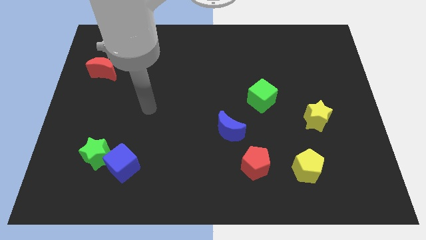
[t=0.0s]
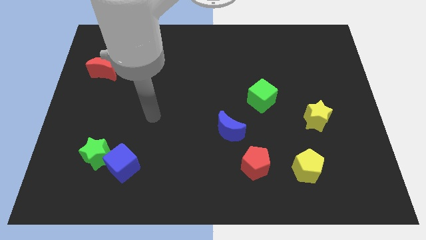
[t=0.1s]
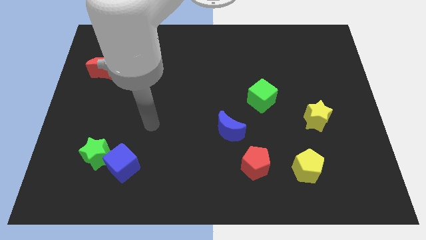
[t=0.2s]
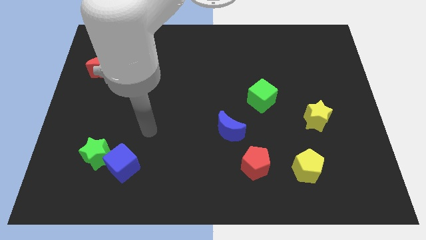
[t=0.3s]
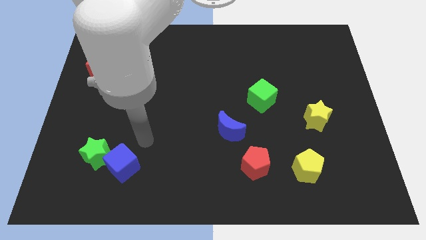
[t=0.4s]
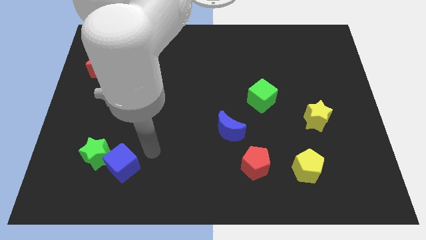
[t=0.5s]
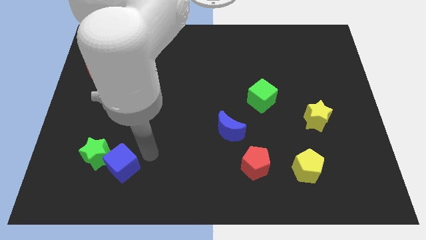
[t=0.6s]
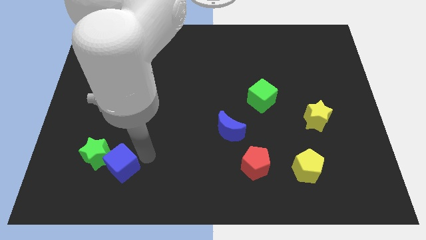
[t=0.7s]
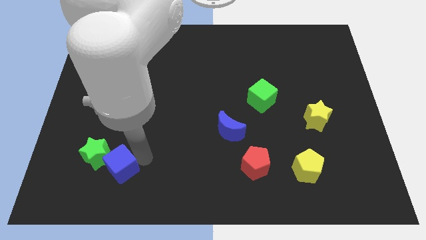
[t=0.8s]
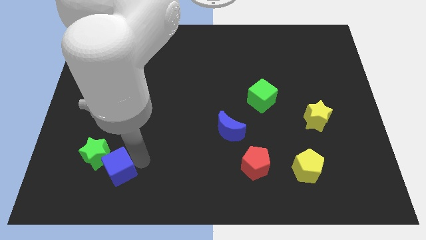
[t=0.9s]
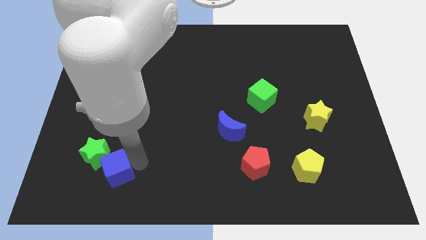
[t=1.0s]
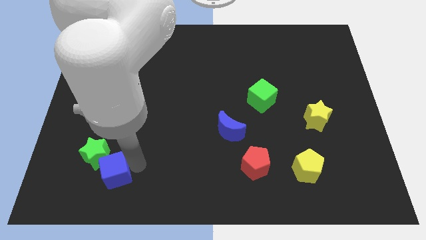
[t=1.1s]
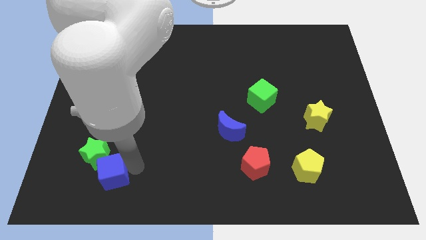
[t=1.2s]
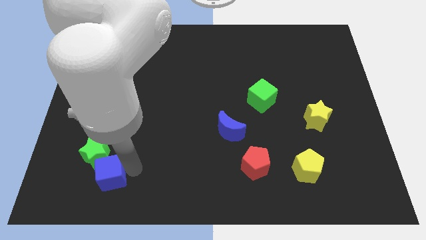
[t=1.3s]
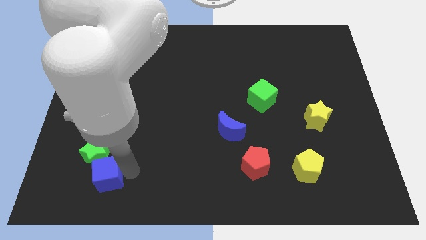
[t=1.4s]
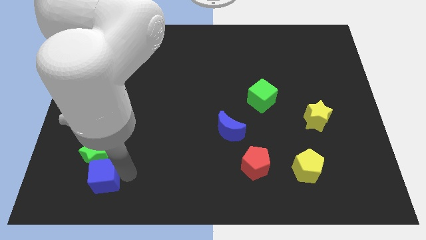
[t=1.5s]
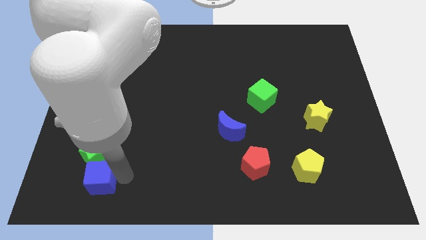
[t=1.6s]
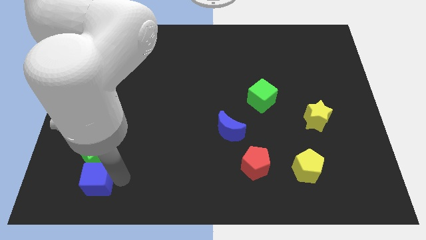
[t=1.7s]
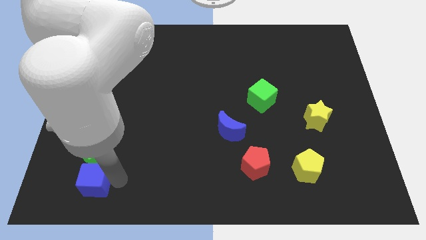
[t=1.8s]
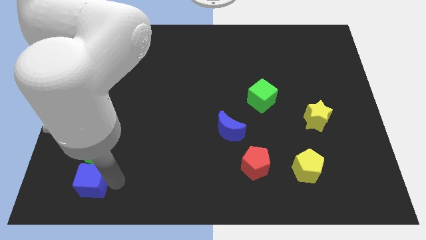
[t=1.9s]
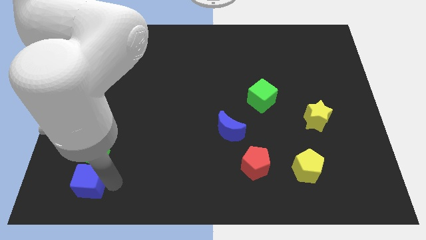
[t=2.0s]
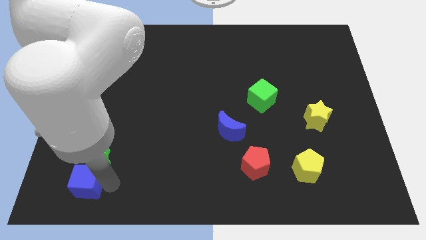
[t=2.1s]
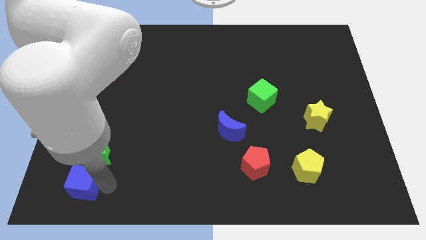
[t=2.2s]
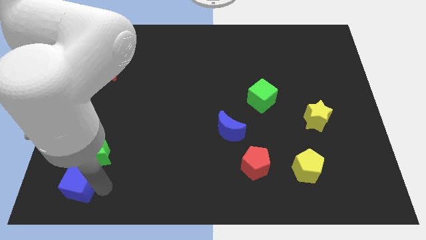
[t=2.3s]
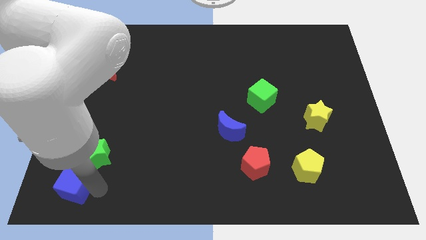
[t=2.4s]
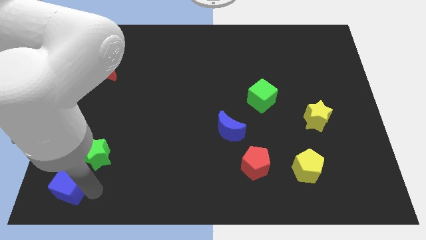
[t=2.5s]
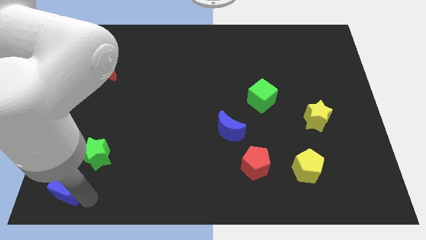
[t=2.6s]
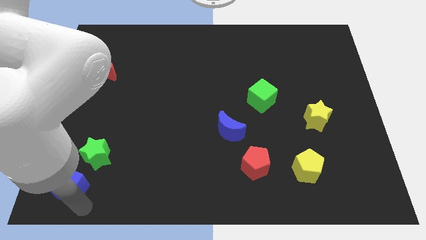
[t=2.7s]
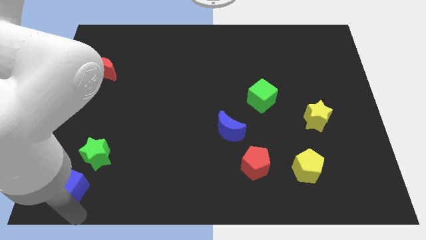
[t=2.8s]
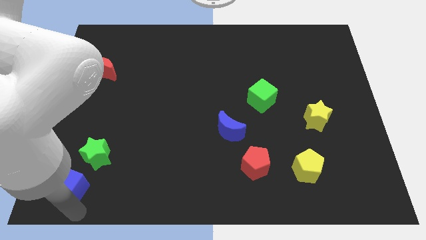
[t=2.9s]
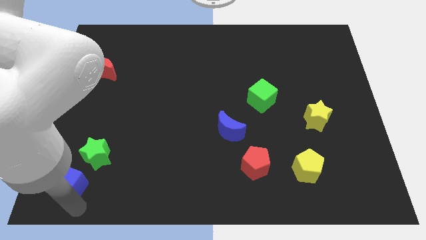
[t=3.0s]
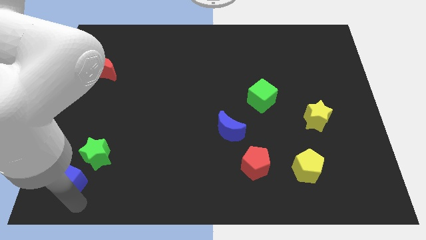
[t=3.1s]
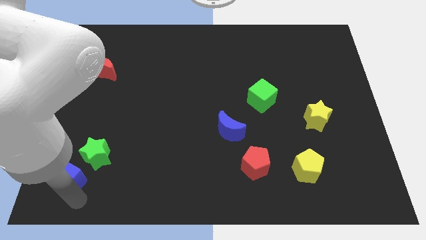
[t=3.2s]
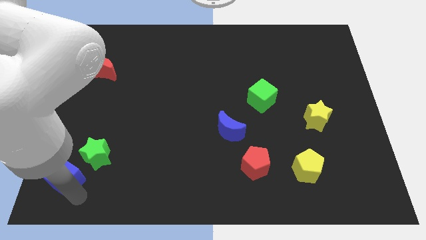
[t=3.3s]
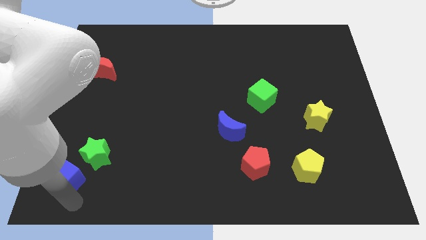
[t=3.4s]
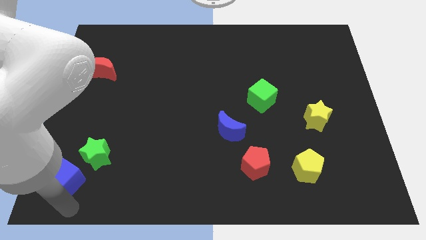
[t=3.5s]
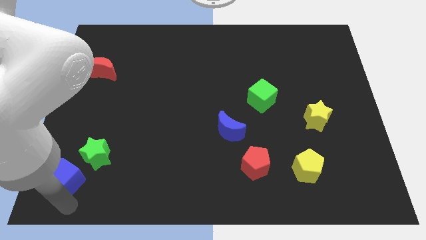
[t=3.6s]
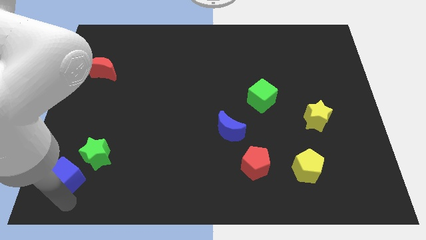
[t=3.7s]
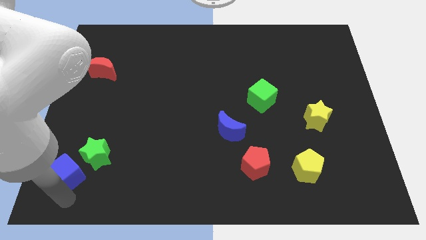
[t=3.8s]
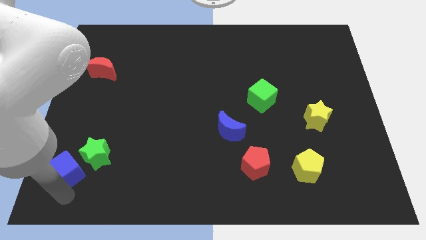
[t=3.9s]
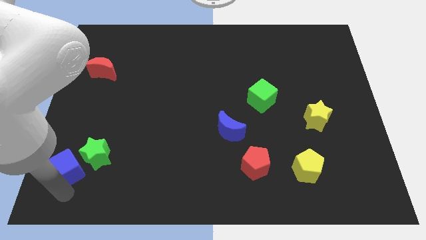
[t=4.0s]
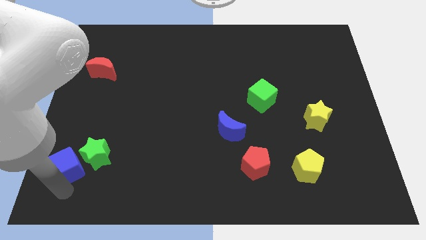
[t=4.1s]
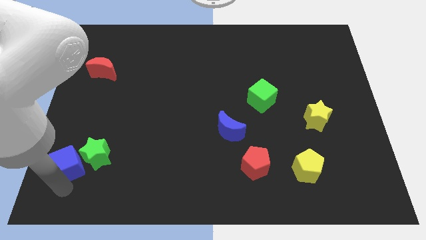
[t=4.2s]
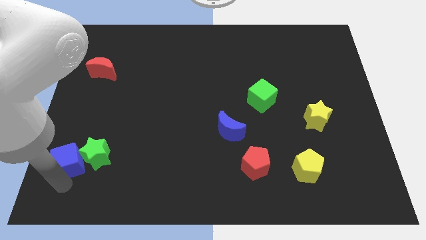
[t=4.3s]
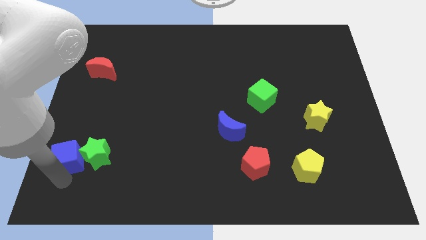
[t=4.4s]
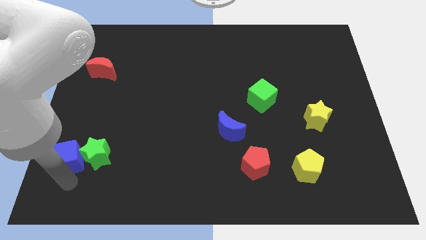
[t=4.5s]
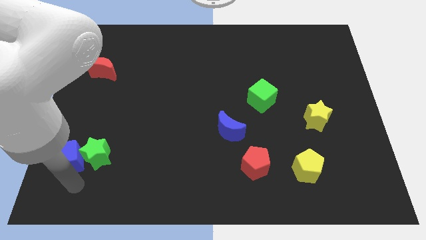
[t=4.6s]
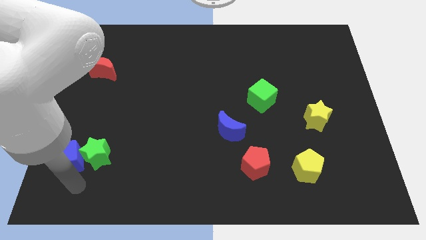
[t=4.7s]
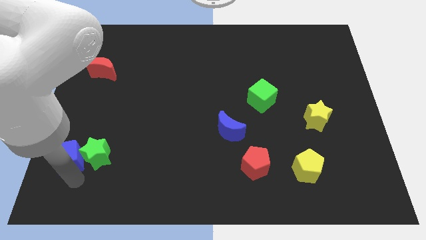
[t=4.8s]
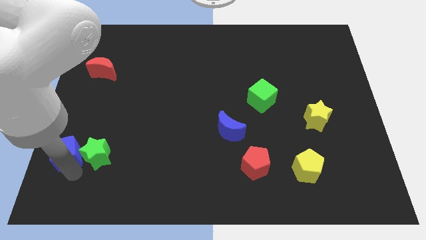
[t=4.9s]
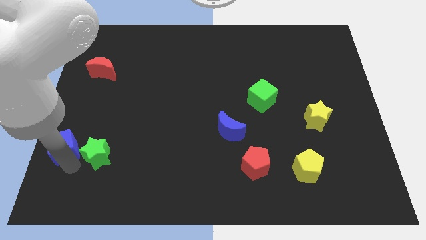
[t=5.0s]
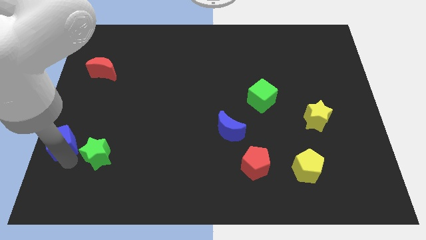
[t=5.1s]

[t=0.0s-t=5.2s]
slide the blue cube to the left side

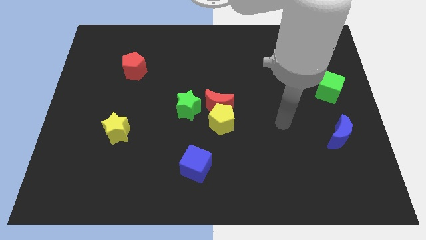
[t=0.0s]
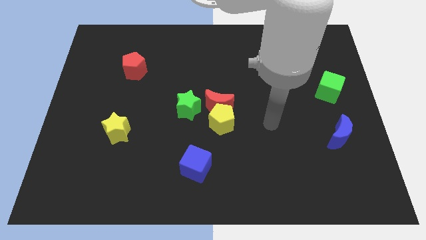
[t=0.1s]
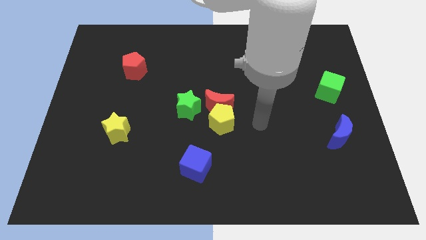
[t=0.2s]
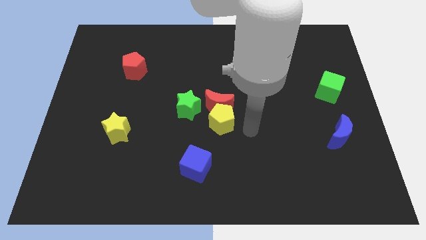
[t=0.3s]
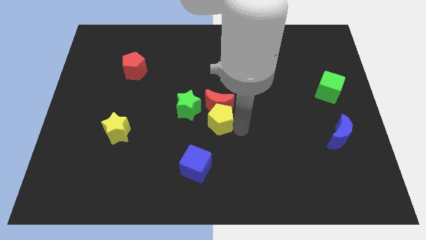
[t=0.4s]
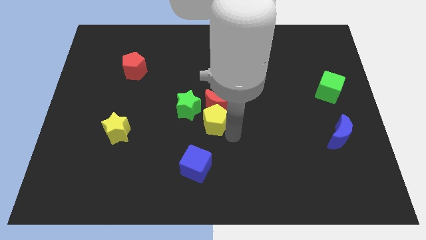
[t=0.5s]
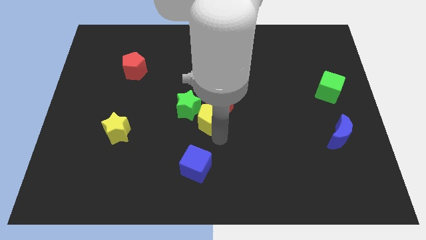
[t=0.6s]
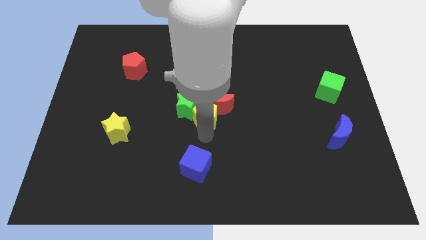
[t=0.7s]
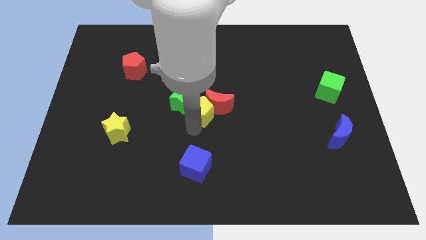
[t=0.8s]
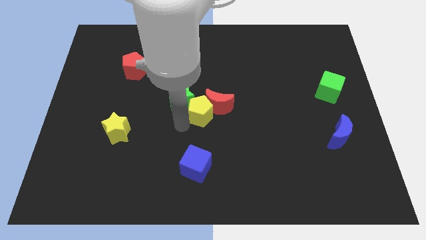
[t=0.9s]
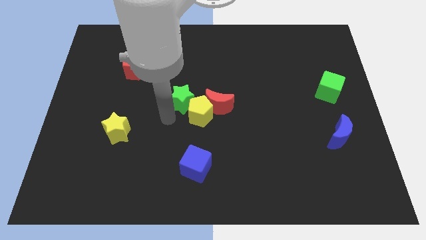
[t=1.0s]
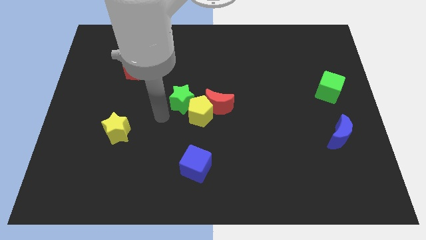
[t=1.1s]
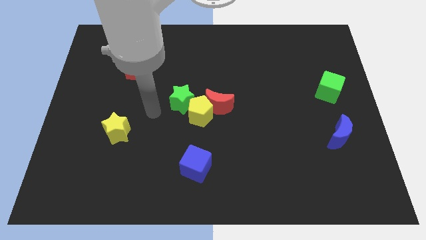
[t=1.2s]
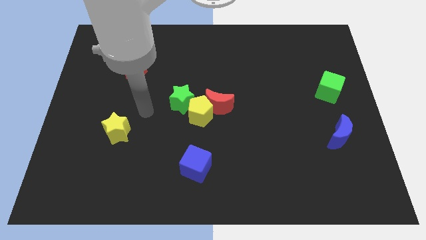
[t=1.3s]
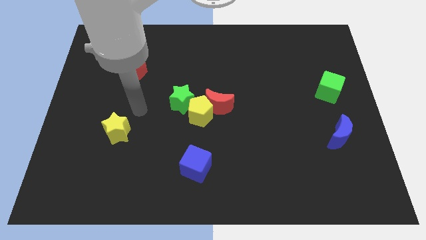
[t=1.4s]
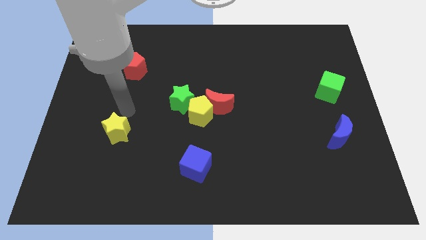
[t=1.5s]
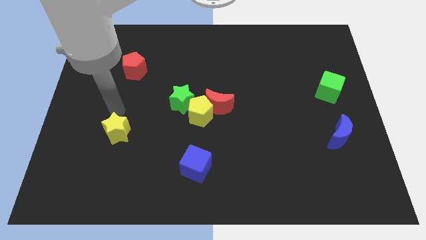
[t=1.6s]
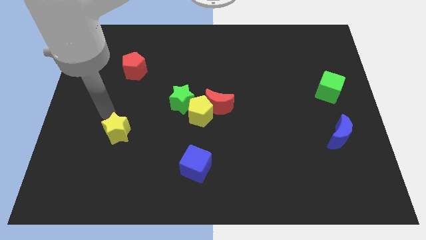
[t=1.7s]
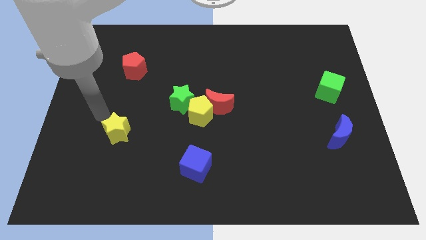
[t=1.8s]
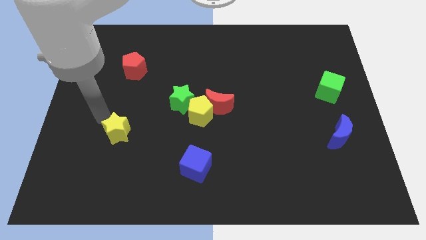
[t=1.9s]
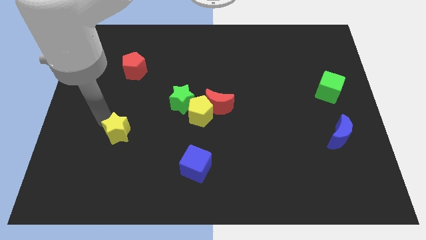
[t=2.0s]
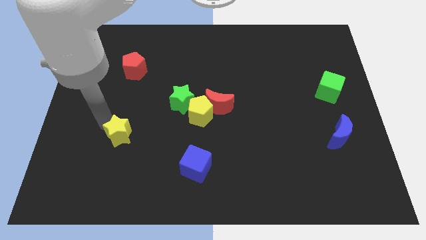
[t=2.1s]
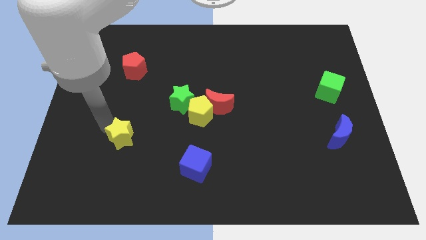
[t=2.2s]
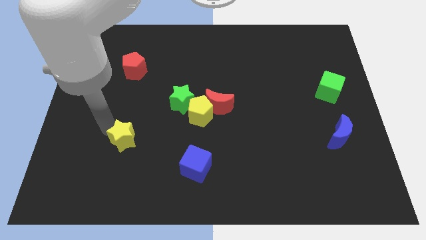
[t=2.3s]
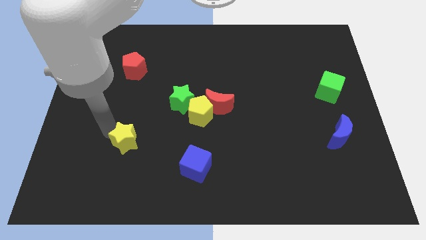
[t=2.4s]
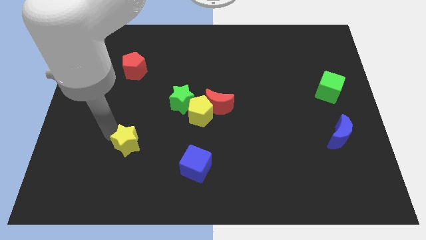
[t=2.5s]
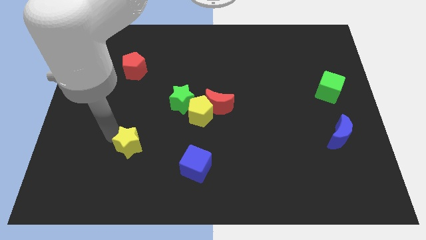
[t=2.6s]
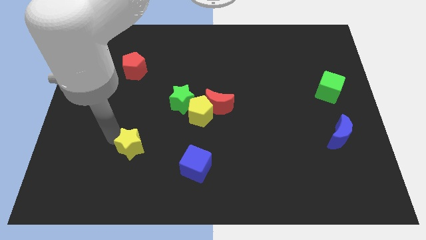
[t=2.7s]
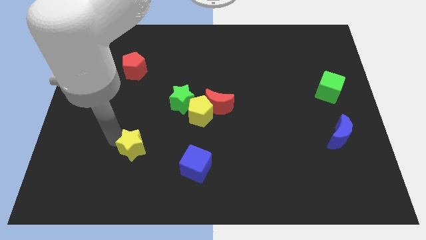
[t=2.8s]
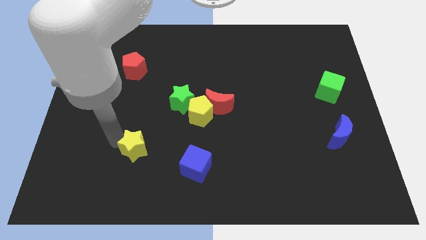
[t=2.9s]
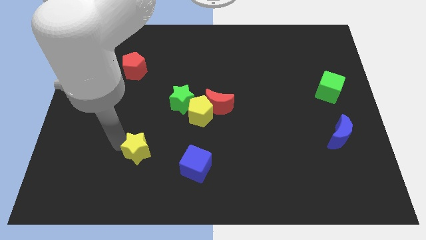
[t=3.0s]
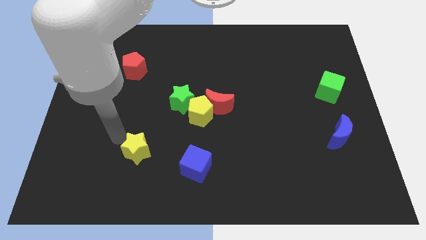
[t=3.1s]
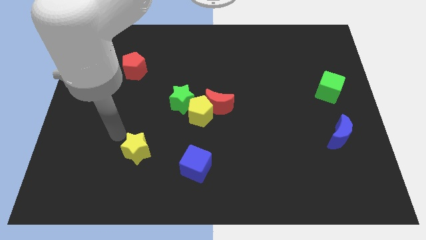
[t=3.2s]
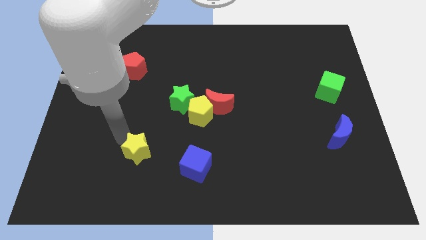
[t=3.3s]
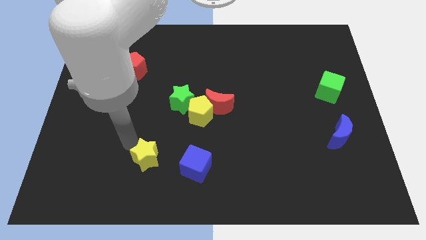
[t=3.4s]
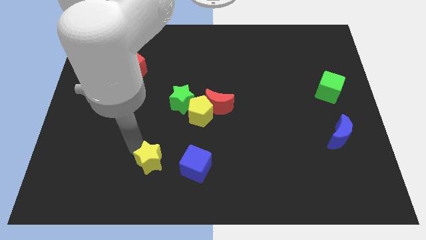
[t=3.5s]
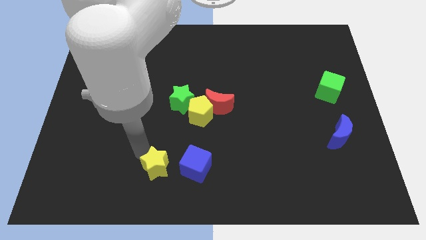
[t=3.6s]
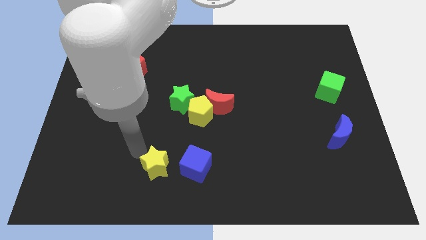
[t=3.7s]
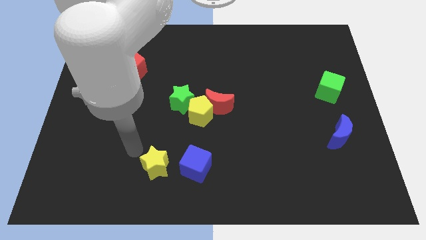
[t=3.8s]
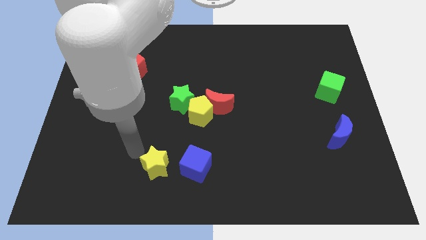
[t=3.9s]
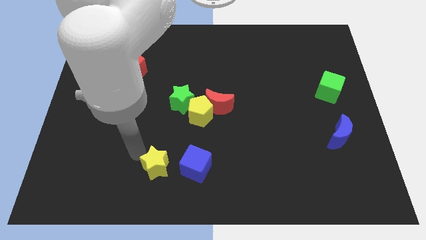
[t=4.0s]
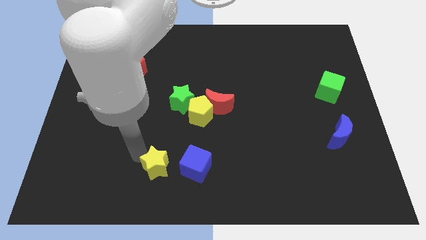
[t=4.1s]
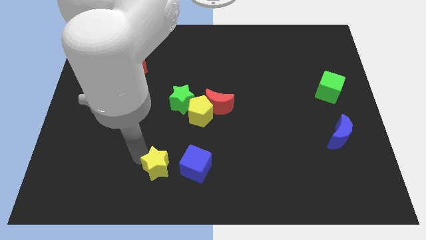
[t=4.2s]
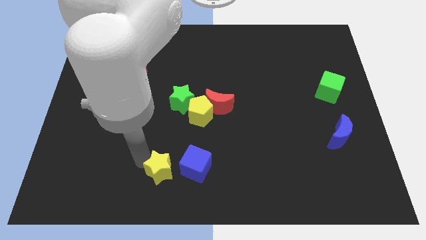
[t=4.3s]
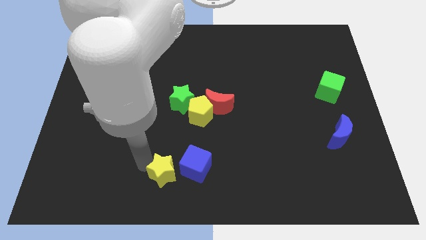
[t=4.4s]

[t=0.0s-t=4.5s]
move the yellow star to the bottom
